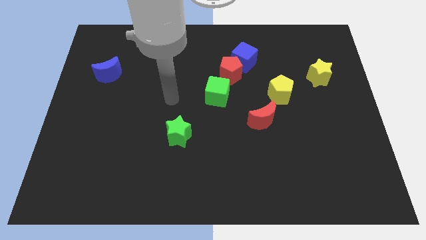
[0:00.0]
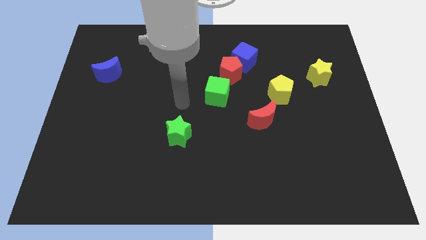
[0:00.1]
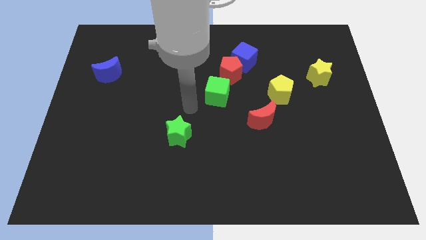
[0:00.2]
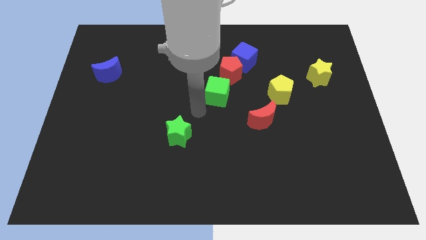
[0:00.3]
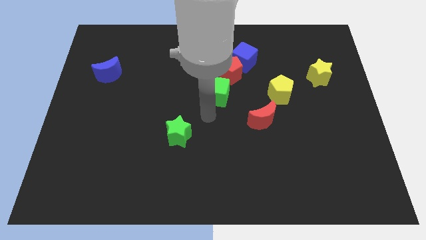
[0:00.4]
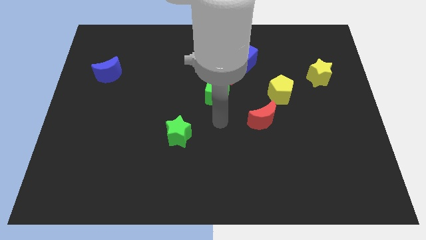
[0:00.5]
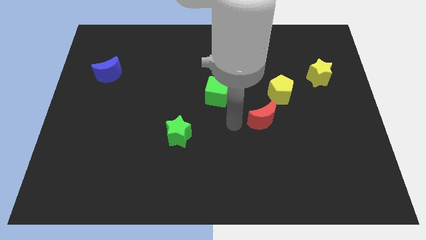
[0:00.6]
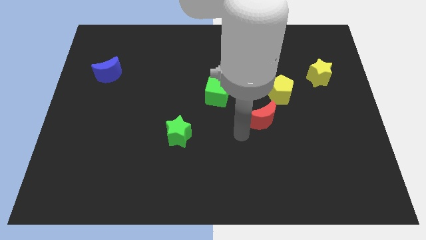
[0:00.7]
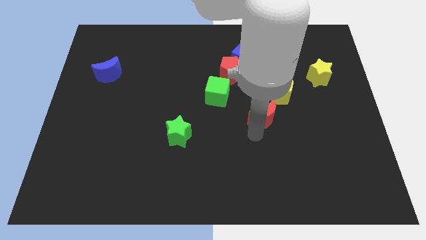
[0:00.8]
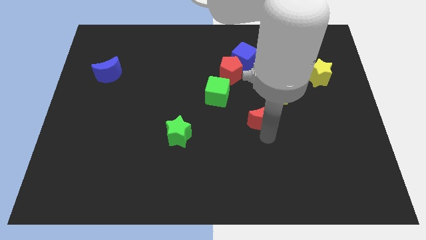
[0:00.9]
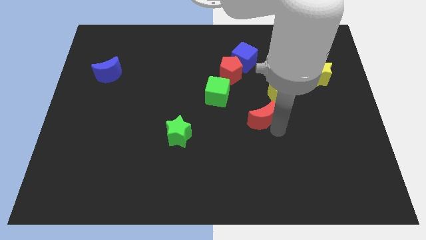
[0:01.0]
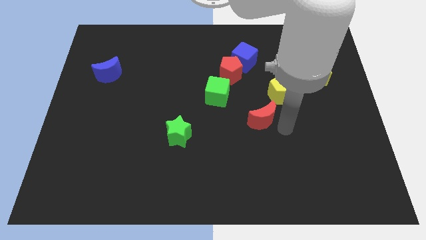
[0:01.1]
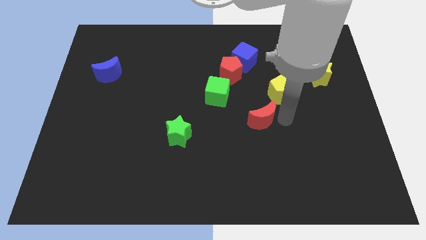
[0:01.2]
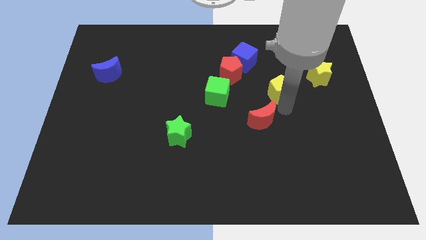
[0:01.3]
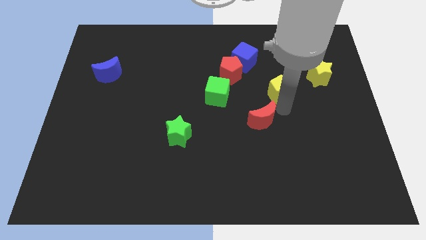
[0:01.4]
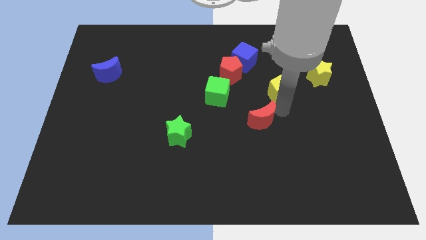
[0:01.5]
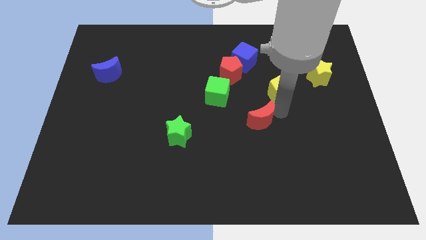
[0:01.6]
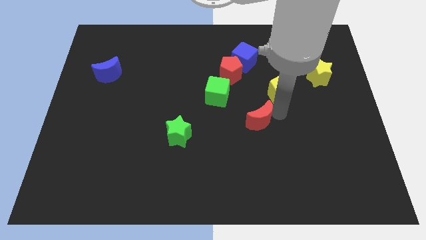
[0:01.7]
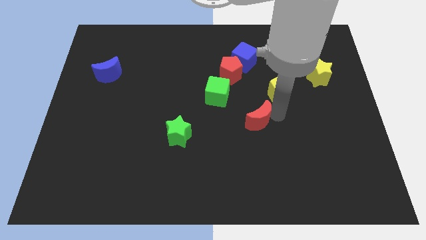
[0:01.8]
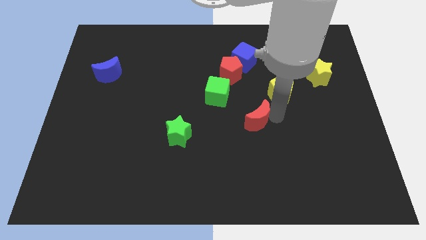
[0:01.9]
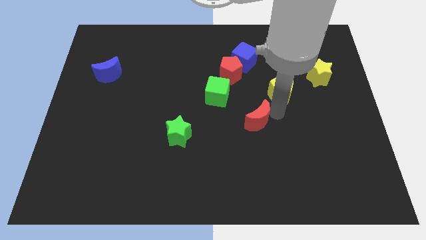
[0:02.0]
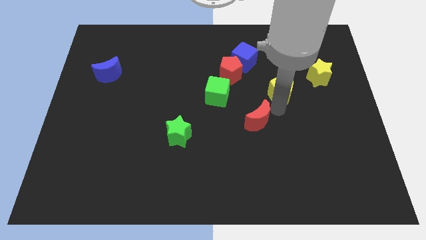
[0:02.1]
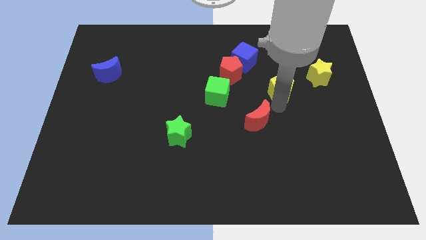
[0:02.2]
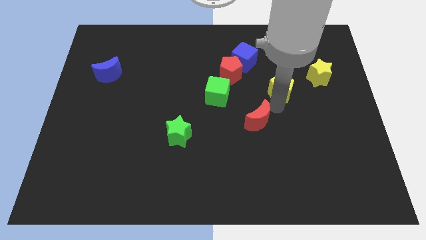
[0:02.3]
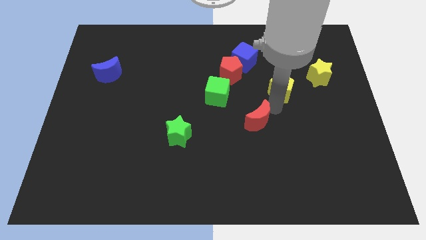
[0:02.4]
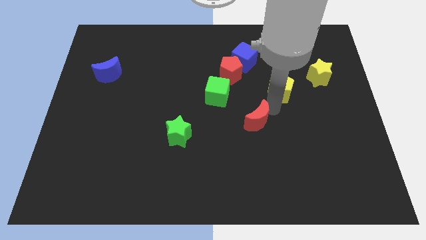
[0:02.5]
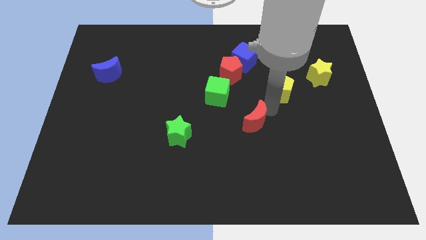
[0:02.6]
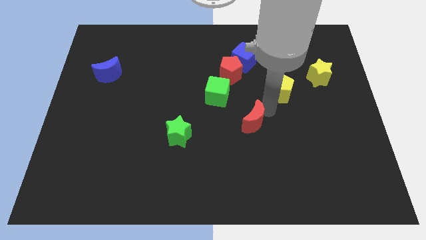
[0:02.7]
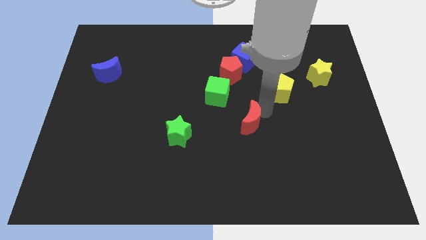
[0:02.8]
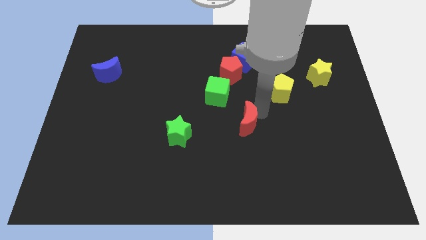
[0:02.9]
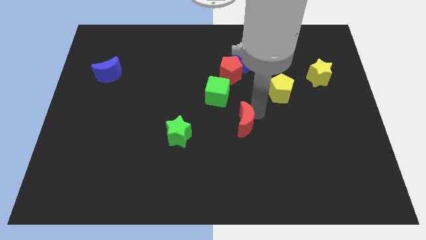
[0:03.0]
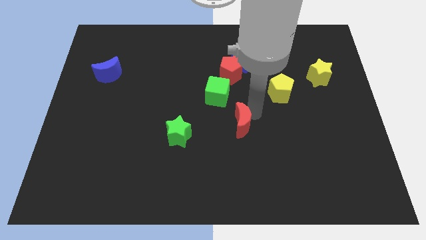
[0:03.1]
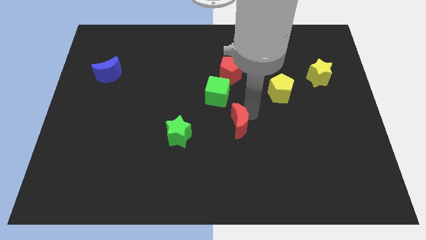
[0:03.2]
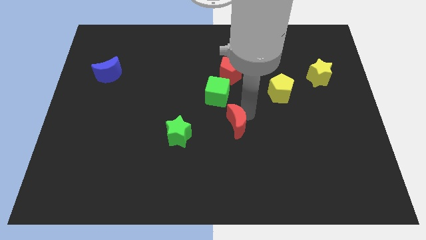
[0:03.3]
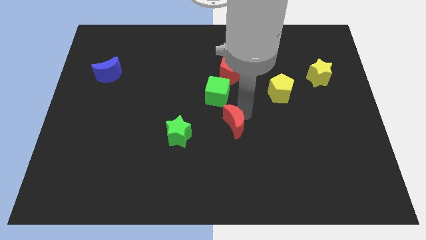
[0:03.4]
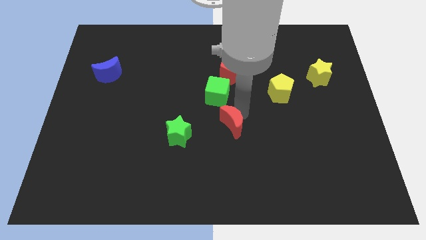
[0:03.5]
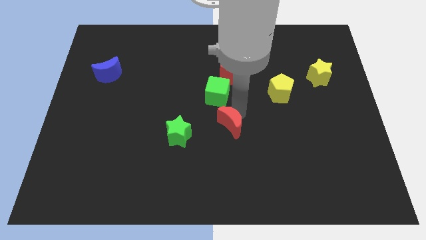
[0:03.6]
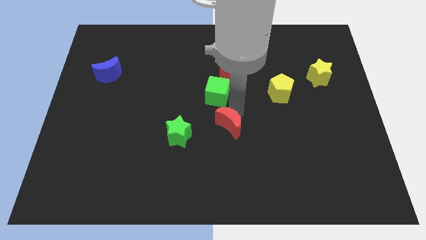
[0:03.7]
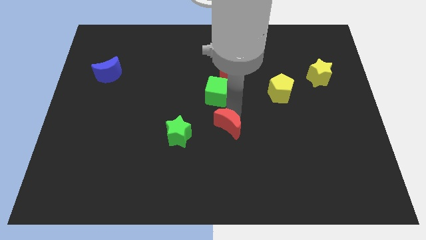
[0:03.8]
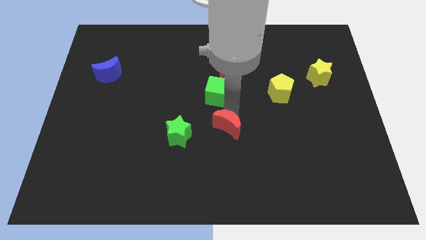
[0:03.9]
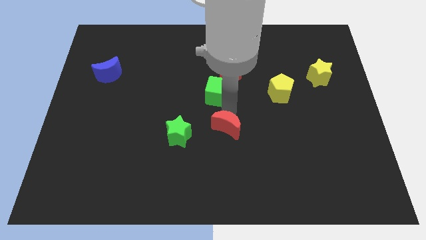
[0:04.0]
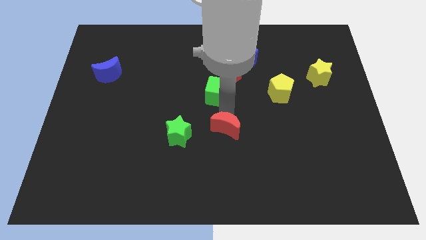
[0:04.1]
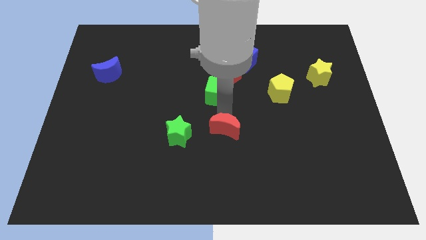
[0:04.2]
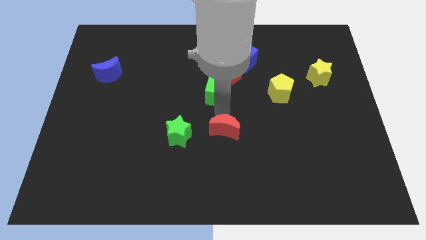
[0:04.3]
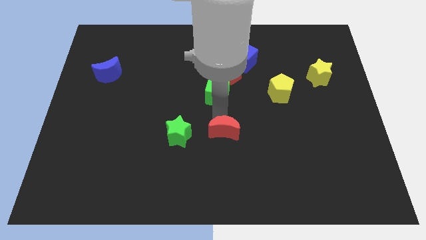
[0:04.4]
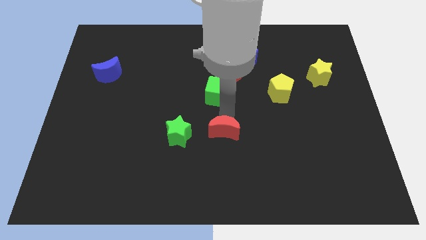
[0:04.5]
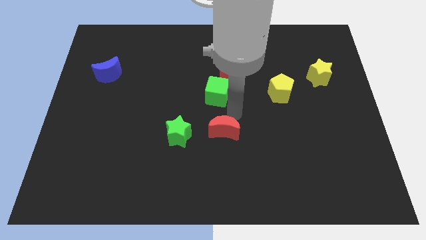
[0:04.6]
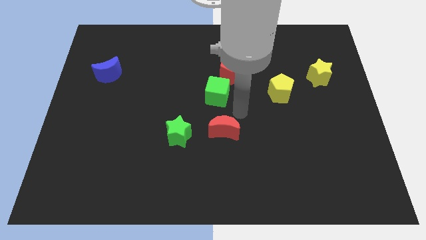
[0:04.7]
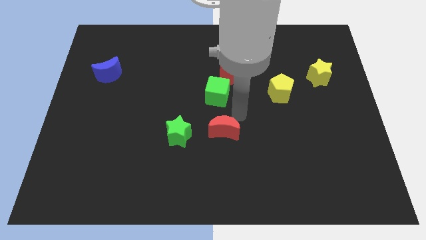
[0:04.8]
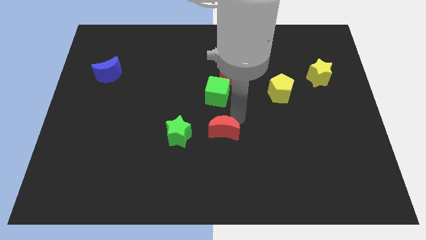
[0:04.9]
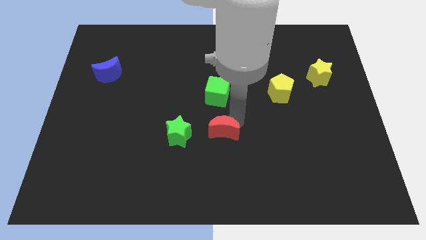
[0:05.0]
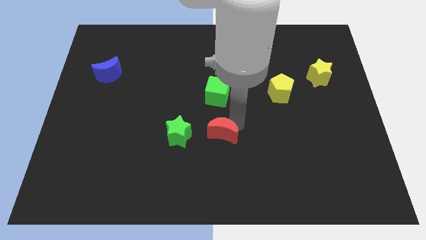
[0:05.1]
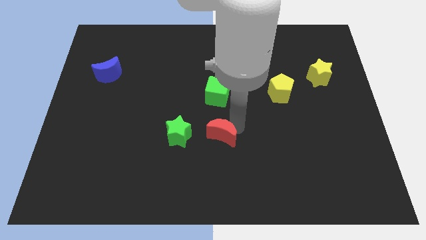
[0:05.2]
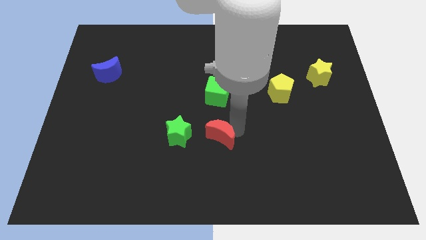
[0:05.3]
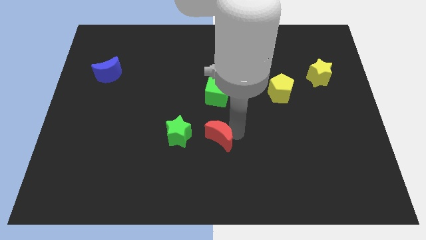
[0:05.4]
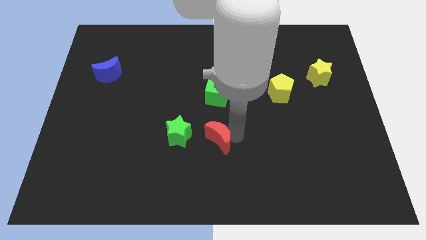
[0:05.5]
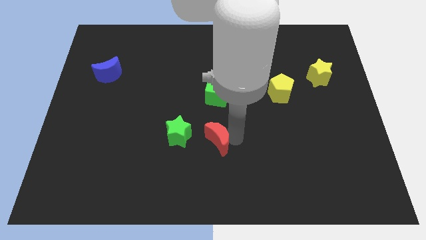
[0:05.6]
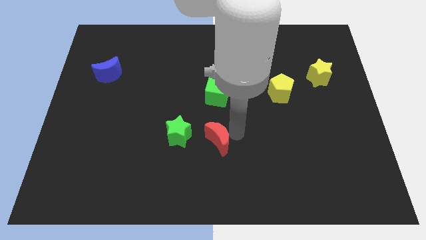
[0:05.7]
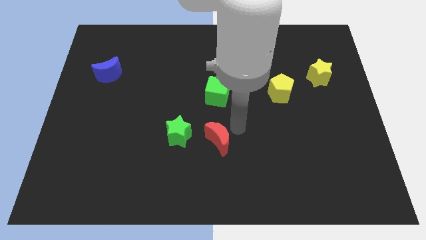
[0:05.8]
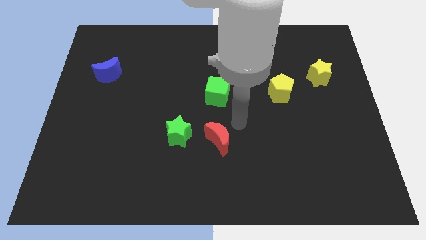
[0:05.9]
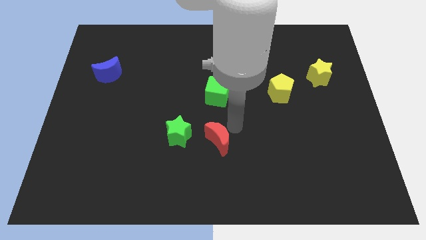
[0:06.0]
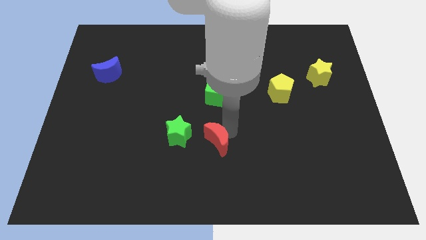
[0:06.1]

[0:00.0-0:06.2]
push the red moon diagonally down and to the right of the green star

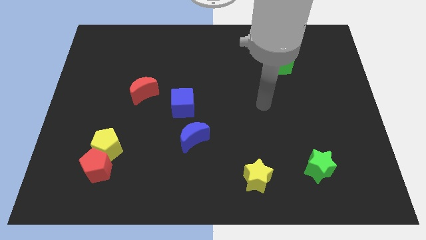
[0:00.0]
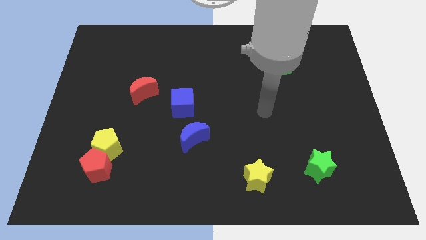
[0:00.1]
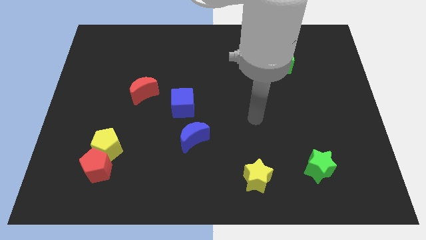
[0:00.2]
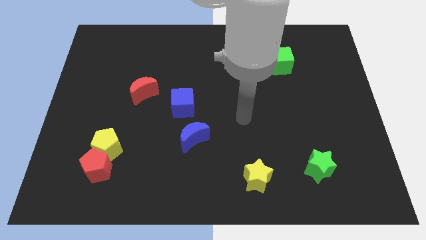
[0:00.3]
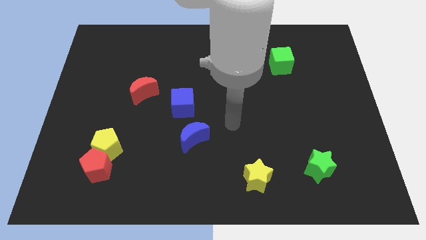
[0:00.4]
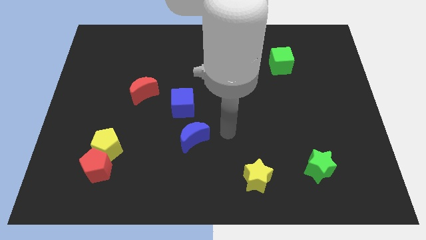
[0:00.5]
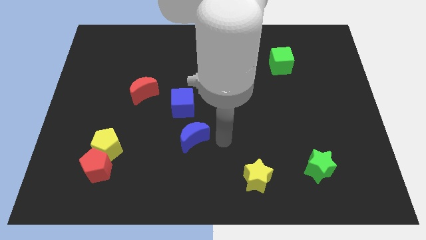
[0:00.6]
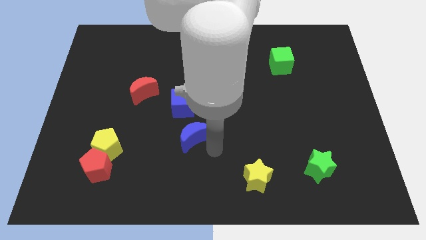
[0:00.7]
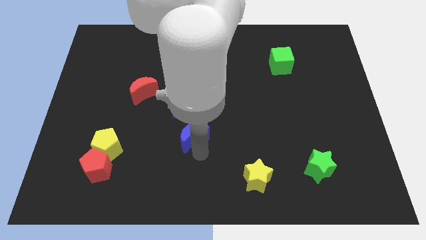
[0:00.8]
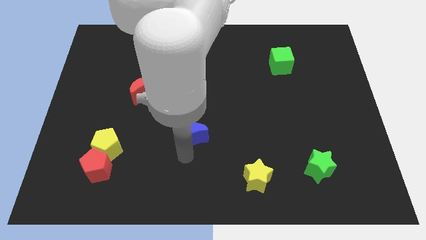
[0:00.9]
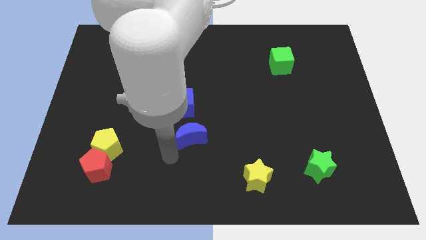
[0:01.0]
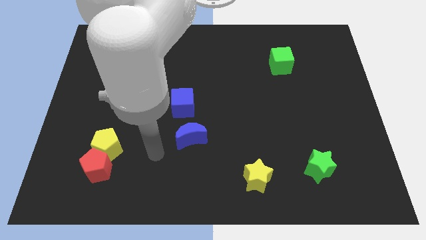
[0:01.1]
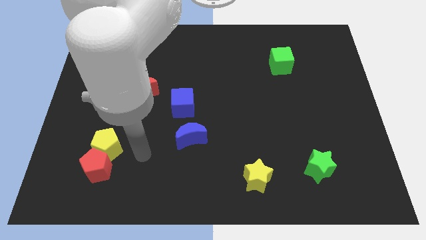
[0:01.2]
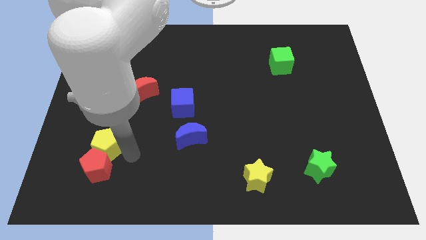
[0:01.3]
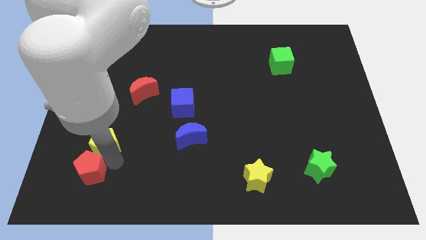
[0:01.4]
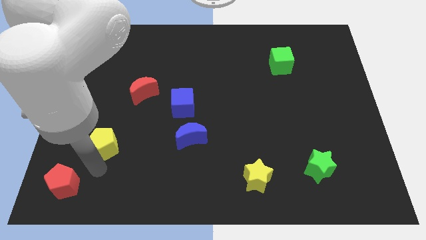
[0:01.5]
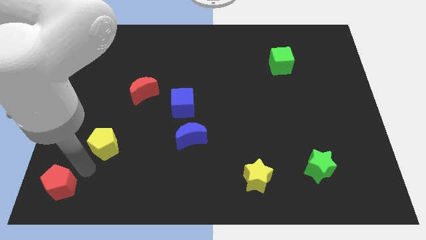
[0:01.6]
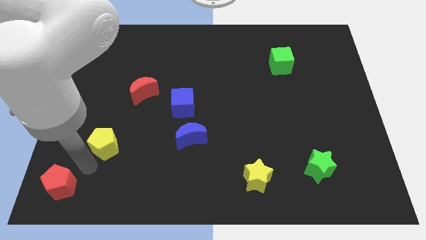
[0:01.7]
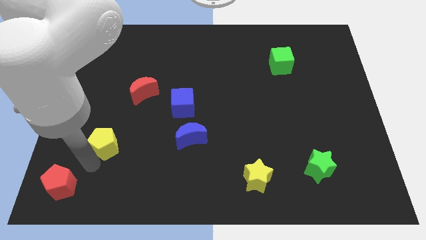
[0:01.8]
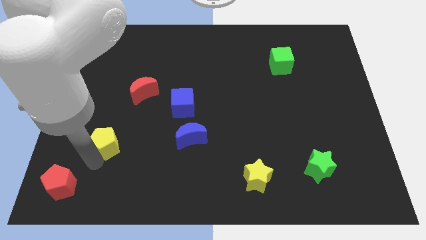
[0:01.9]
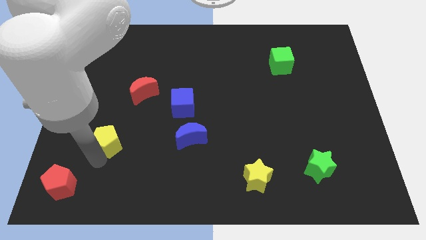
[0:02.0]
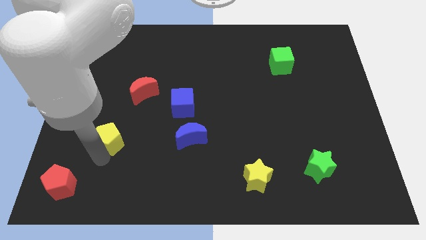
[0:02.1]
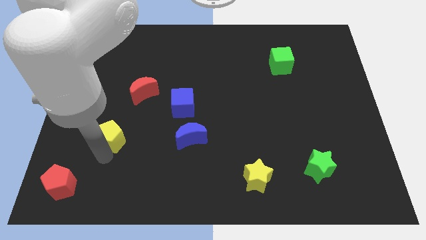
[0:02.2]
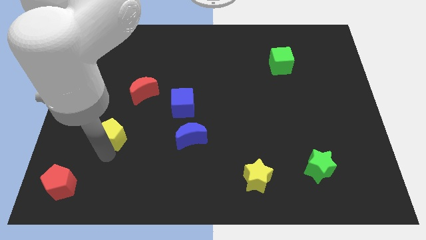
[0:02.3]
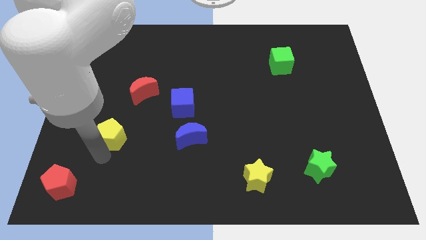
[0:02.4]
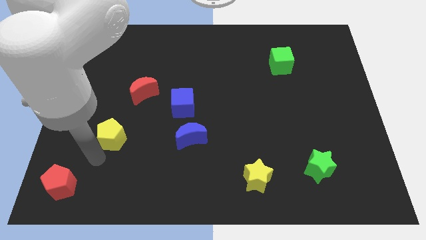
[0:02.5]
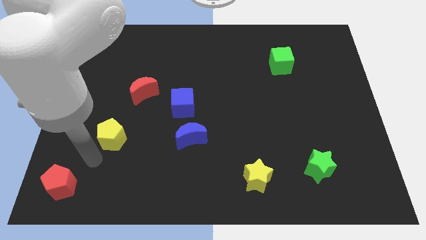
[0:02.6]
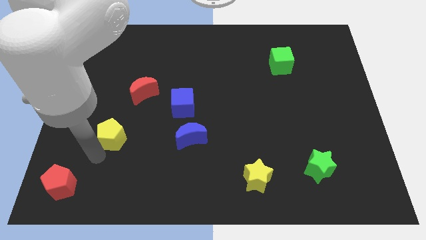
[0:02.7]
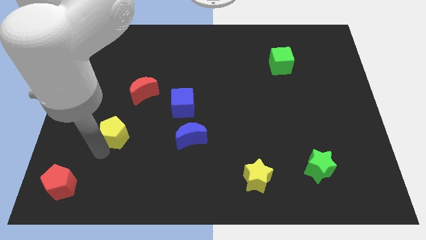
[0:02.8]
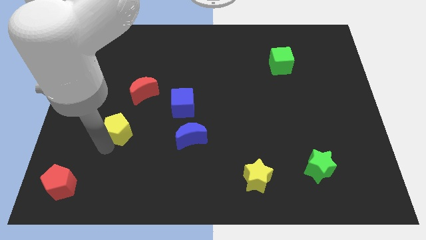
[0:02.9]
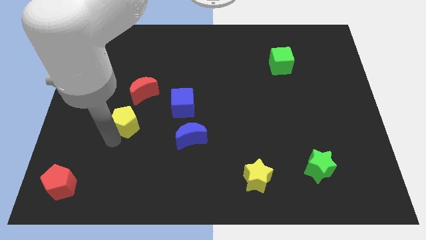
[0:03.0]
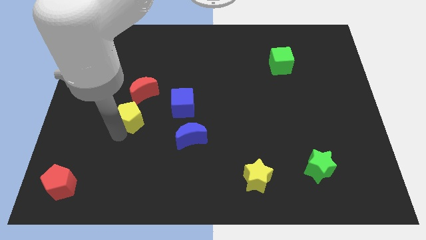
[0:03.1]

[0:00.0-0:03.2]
push the yellow pentagon left of the blue cube
